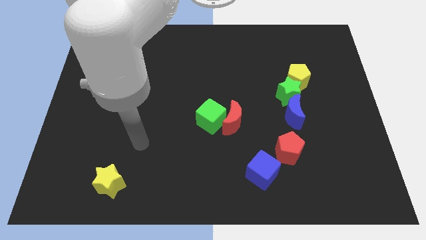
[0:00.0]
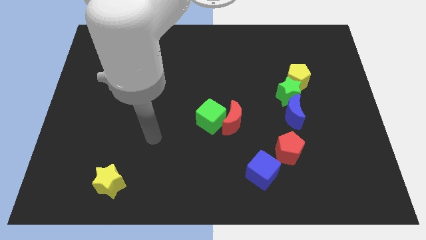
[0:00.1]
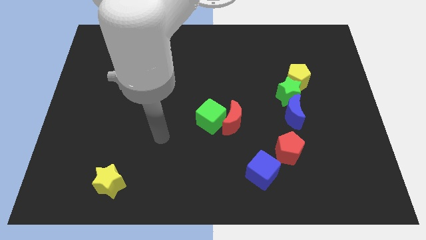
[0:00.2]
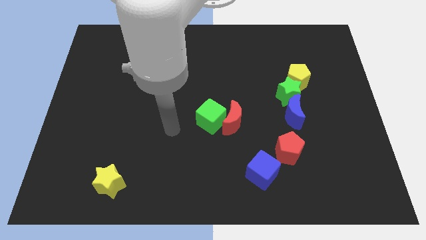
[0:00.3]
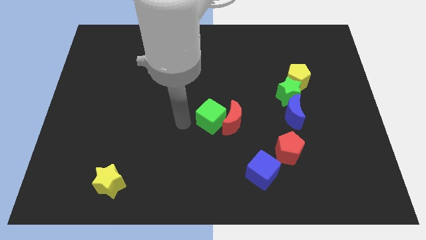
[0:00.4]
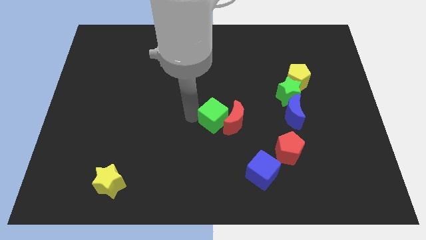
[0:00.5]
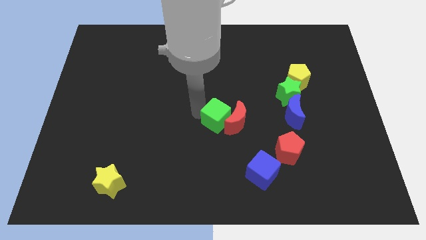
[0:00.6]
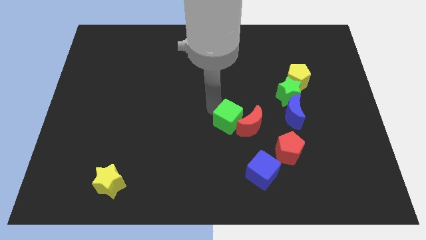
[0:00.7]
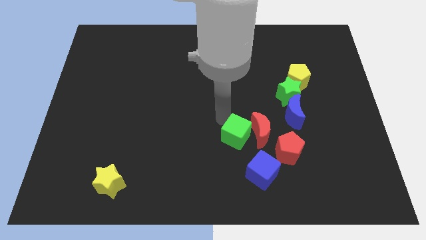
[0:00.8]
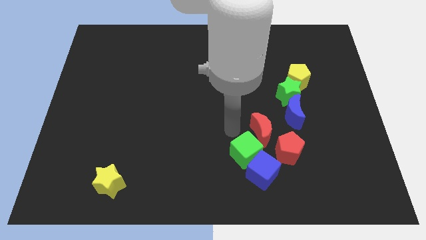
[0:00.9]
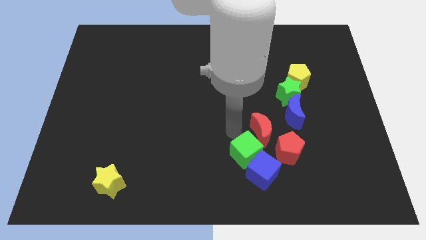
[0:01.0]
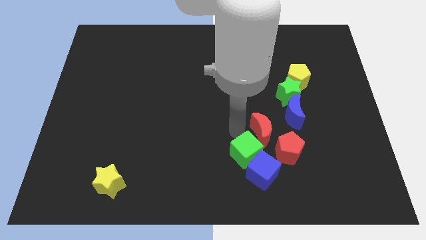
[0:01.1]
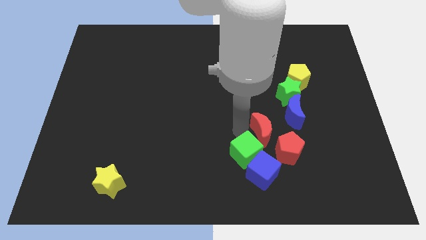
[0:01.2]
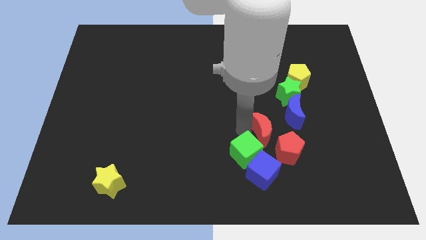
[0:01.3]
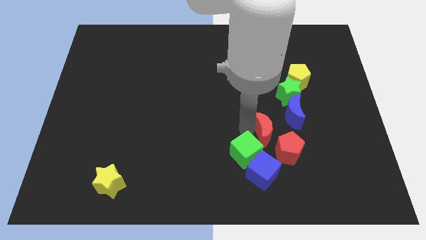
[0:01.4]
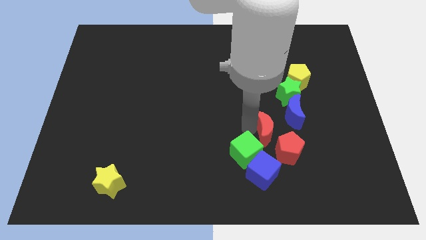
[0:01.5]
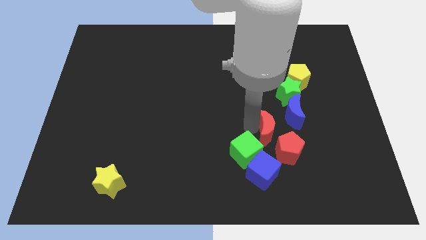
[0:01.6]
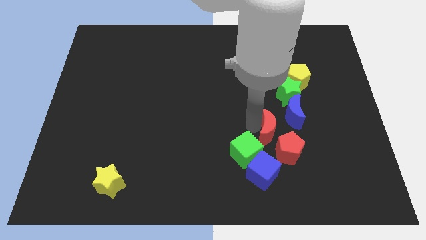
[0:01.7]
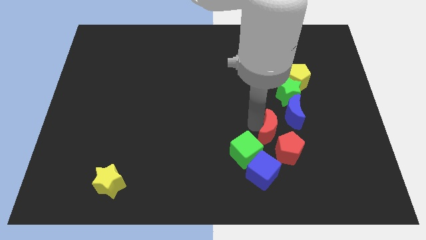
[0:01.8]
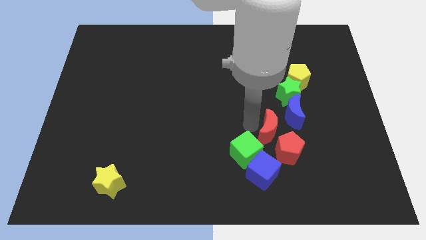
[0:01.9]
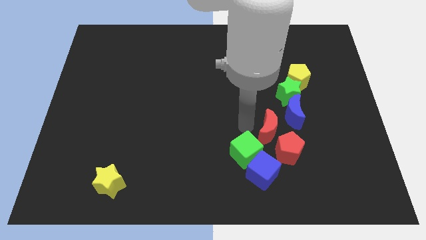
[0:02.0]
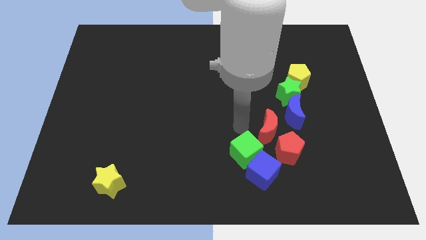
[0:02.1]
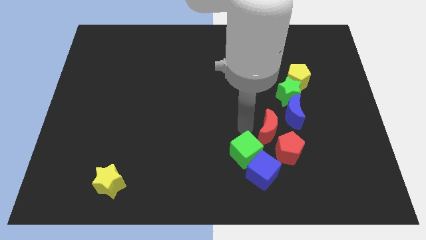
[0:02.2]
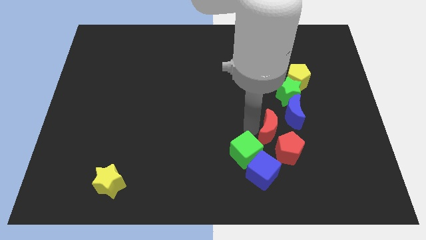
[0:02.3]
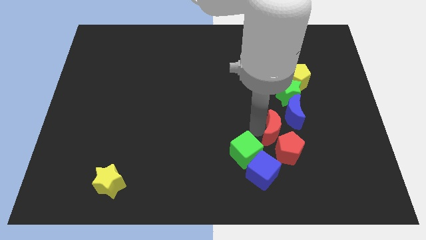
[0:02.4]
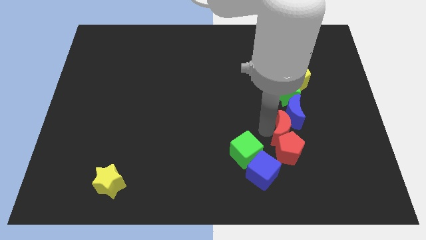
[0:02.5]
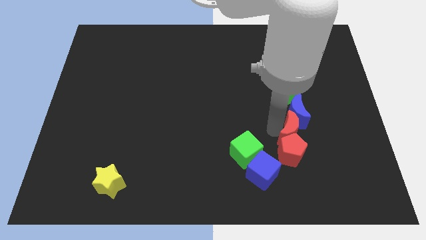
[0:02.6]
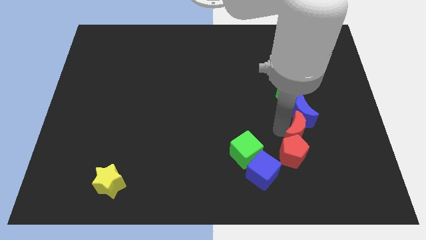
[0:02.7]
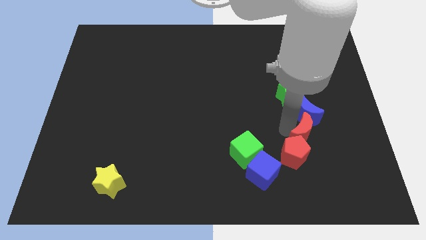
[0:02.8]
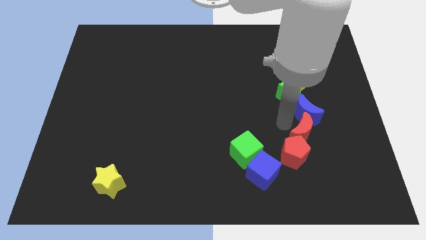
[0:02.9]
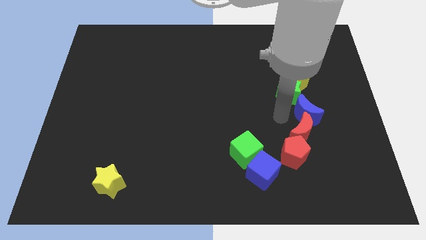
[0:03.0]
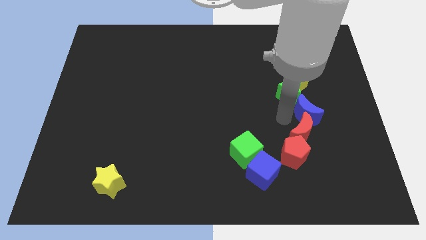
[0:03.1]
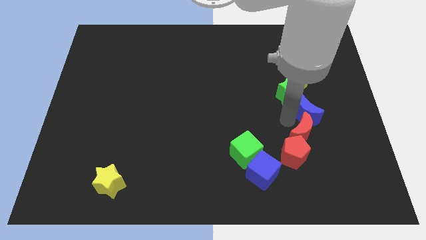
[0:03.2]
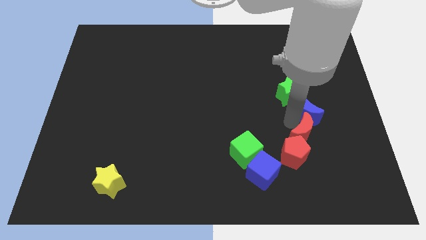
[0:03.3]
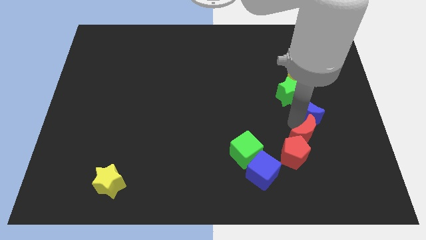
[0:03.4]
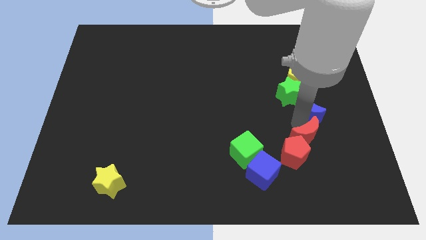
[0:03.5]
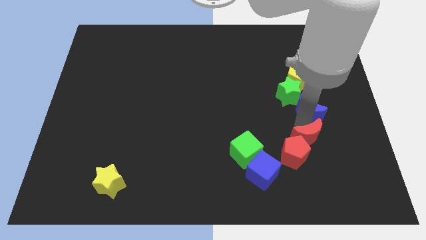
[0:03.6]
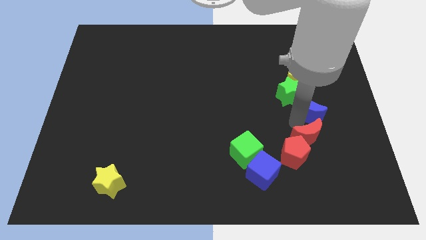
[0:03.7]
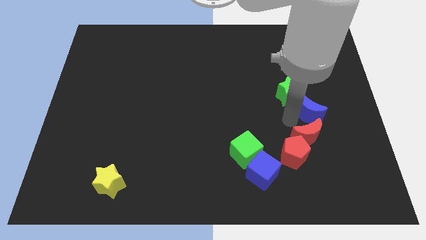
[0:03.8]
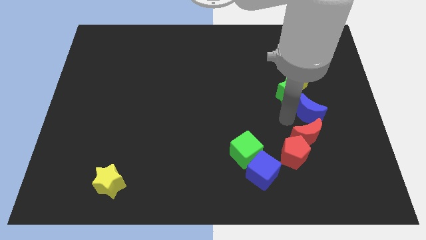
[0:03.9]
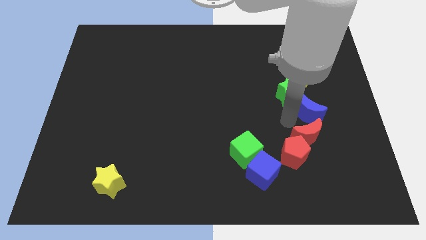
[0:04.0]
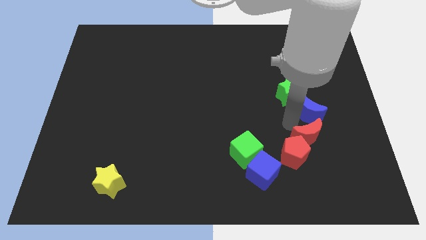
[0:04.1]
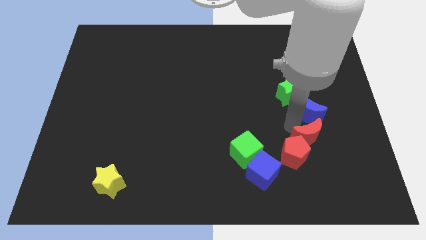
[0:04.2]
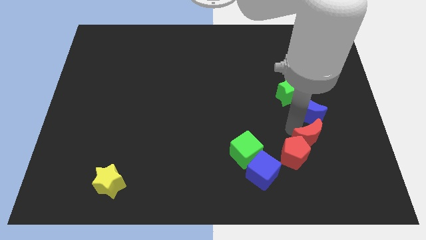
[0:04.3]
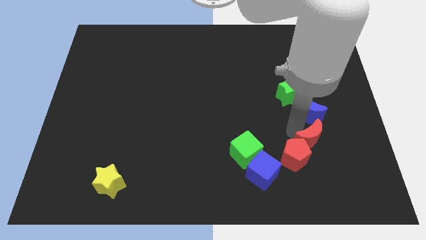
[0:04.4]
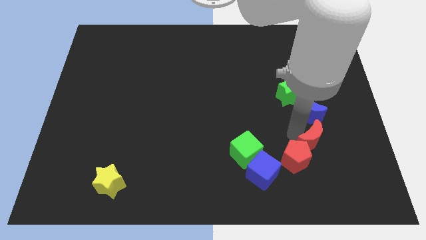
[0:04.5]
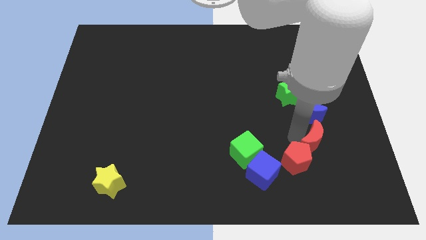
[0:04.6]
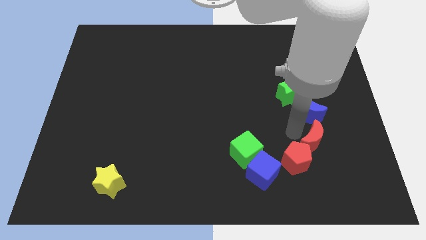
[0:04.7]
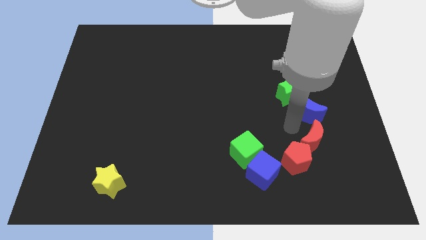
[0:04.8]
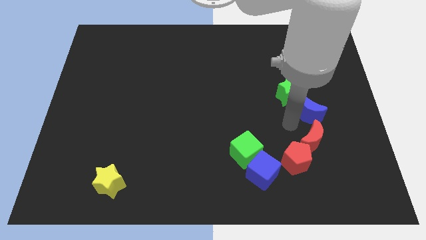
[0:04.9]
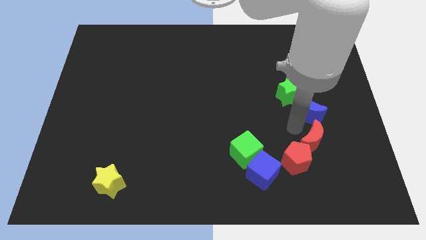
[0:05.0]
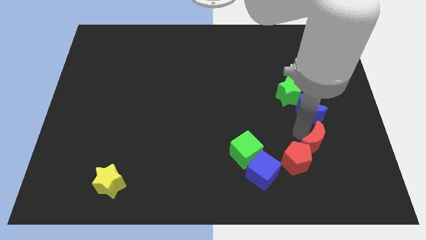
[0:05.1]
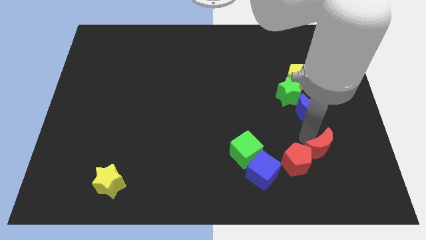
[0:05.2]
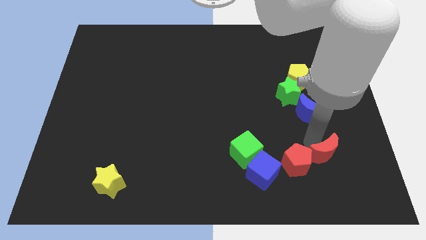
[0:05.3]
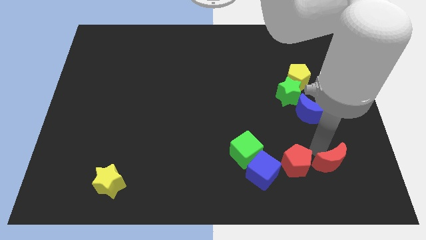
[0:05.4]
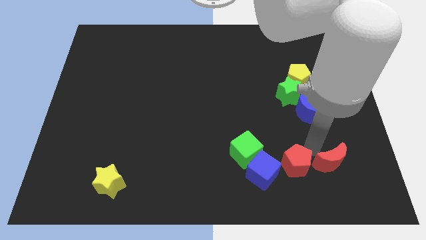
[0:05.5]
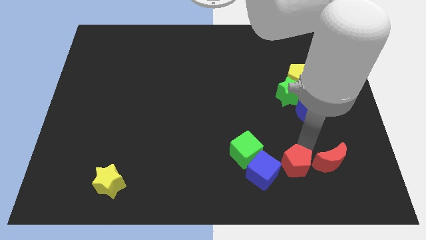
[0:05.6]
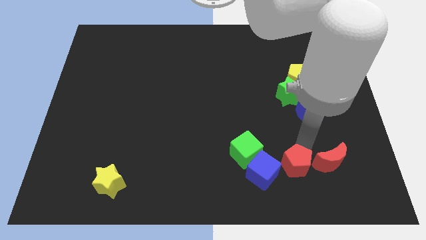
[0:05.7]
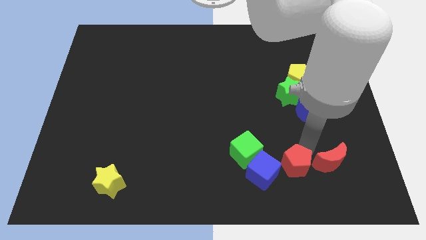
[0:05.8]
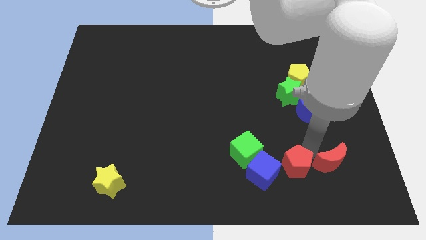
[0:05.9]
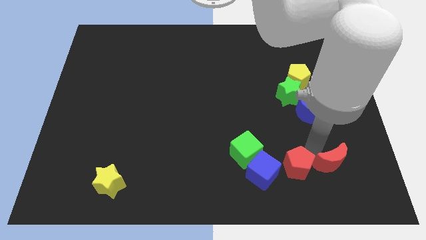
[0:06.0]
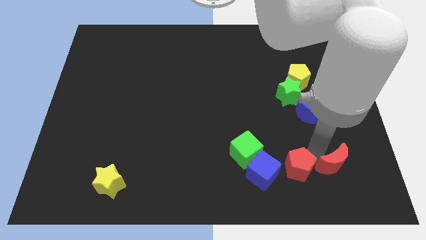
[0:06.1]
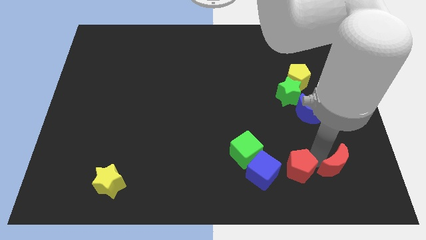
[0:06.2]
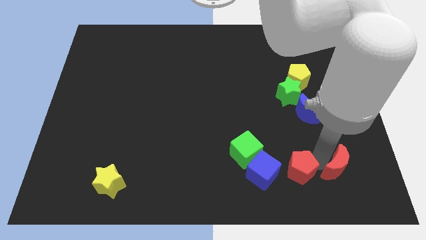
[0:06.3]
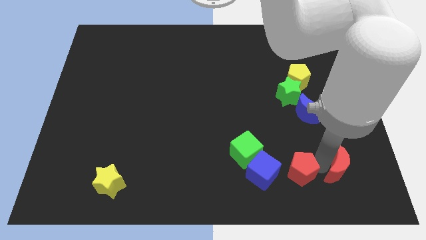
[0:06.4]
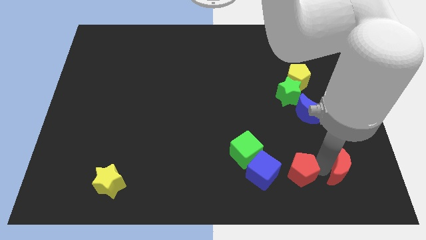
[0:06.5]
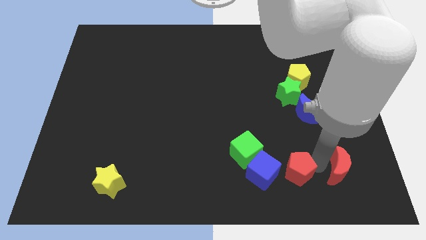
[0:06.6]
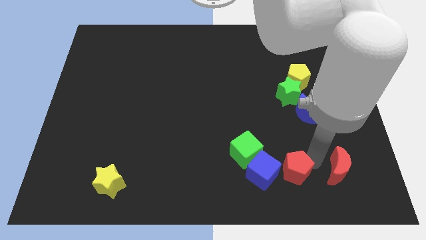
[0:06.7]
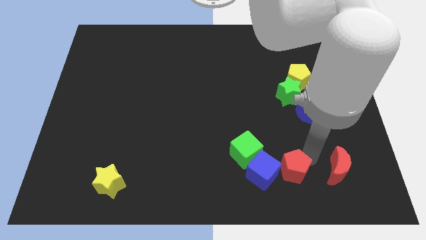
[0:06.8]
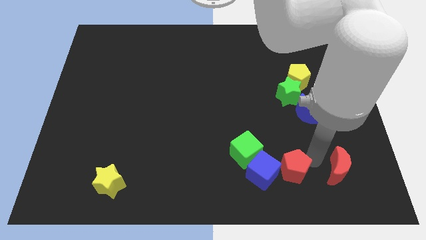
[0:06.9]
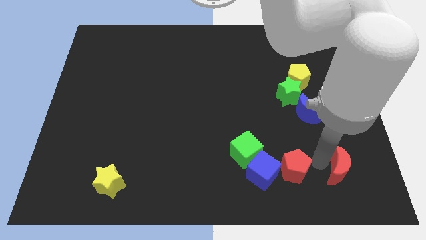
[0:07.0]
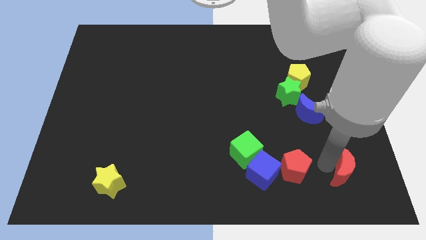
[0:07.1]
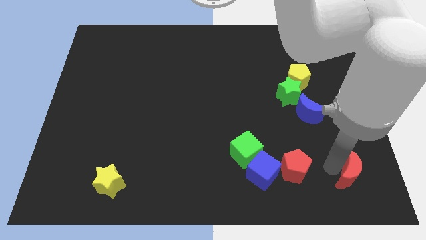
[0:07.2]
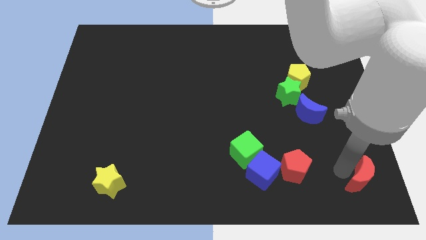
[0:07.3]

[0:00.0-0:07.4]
move the red moon to the bottom right
